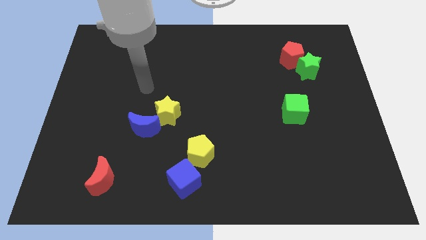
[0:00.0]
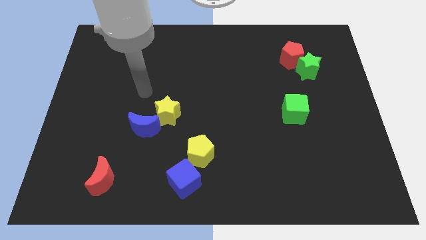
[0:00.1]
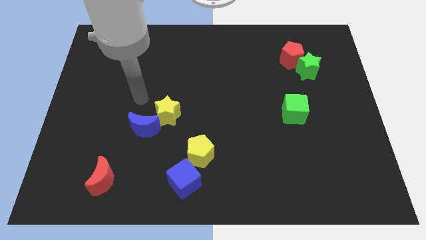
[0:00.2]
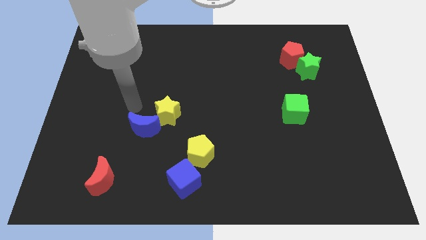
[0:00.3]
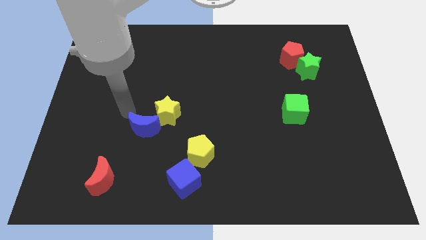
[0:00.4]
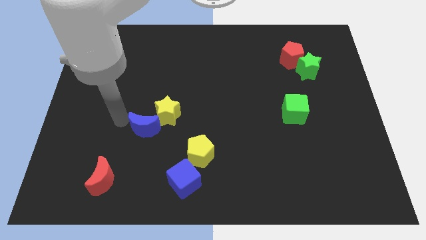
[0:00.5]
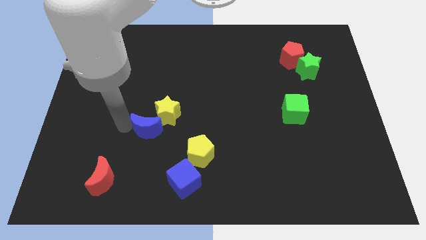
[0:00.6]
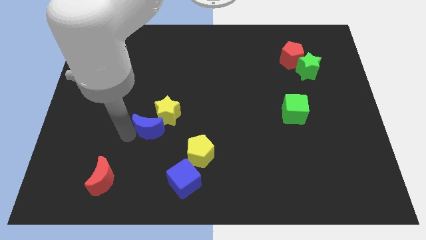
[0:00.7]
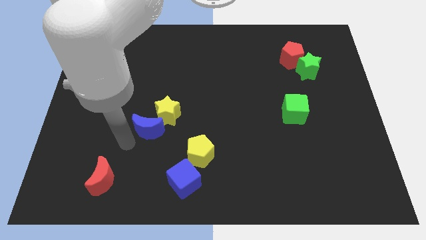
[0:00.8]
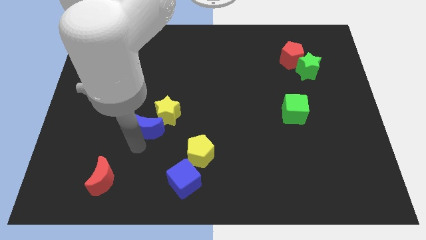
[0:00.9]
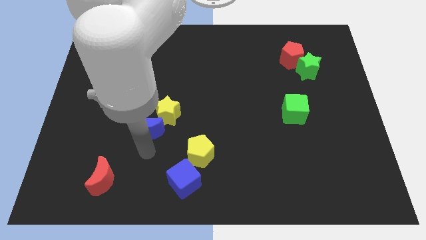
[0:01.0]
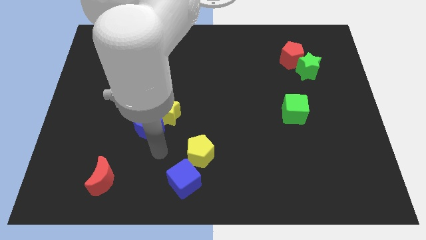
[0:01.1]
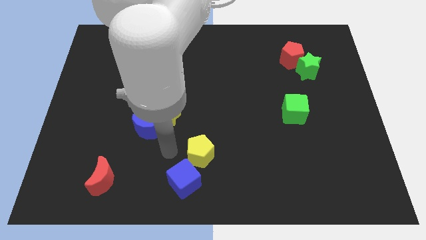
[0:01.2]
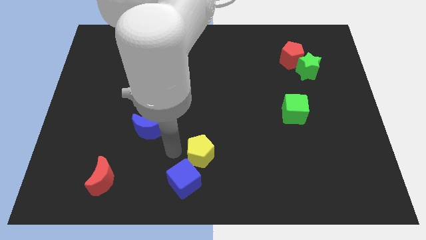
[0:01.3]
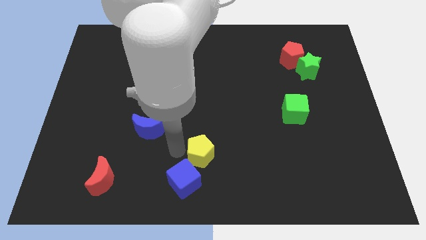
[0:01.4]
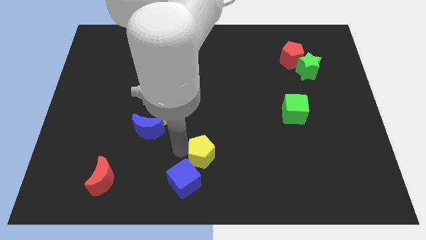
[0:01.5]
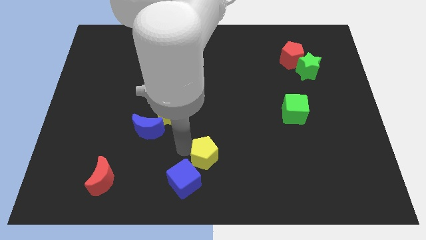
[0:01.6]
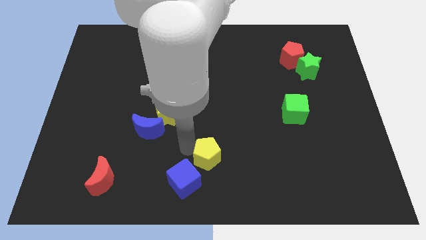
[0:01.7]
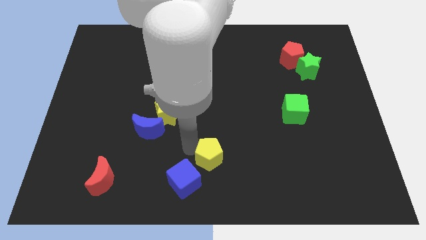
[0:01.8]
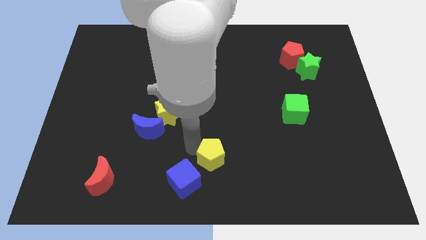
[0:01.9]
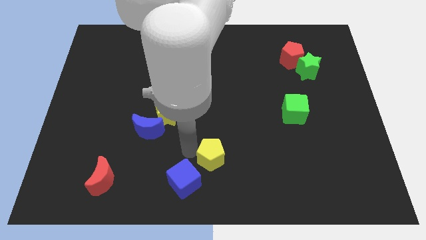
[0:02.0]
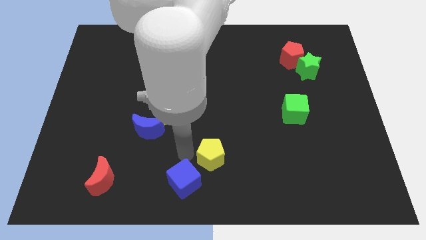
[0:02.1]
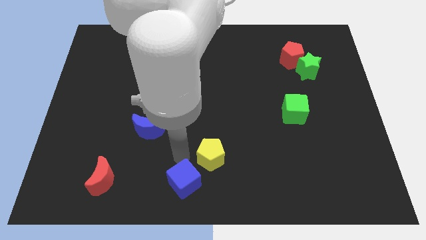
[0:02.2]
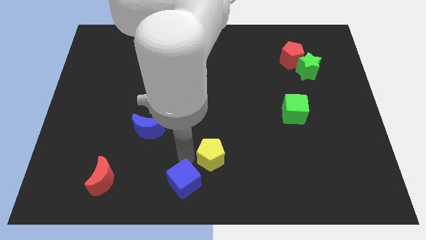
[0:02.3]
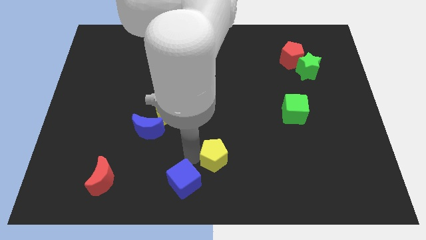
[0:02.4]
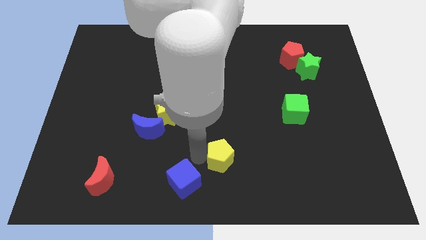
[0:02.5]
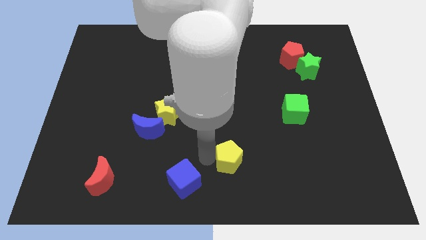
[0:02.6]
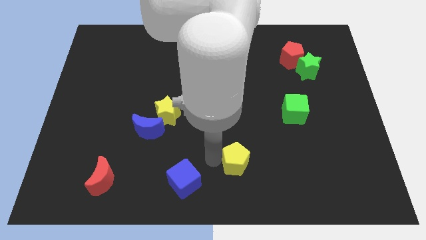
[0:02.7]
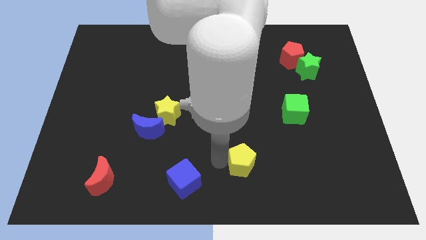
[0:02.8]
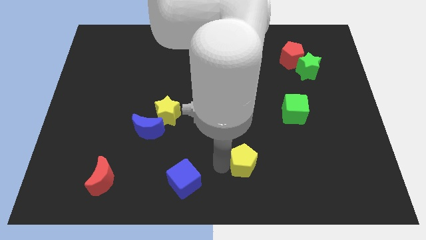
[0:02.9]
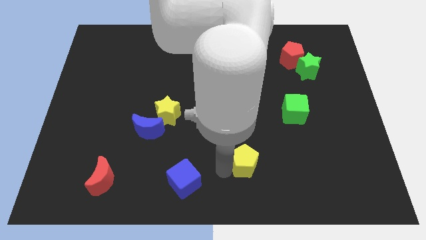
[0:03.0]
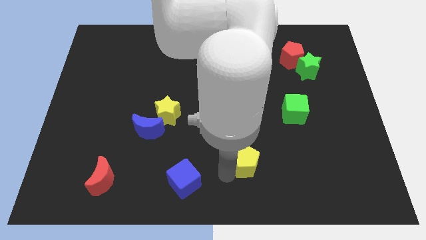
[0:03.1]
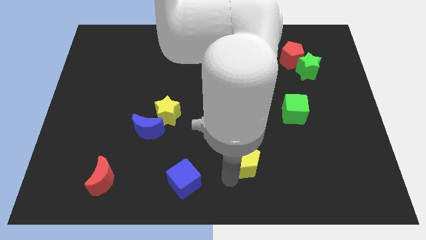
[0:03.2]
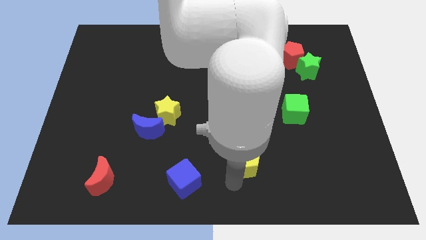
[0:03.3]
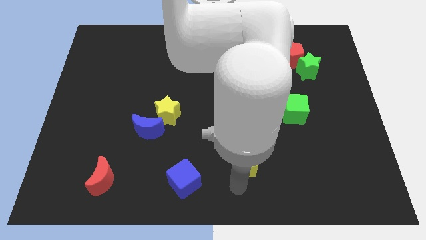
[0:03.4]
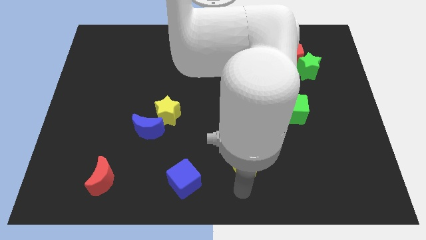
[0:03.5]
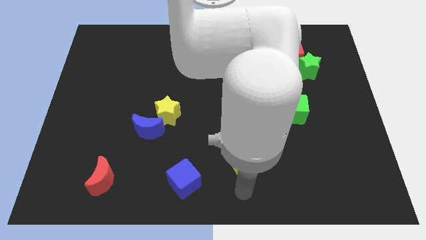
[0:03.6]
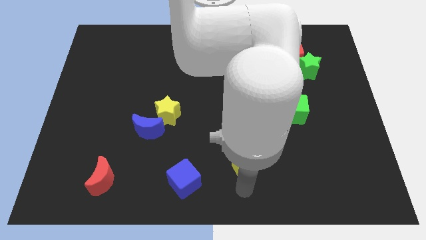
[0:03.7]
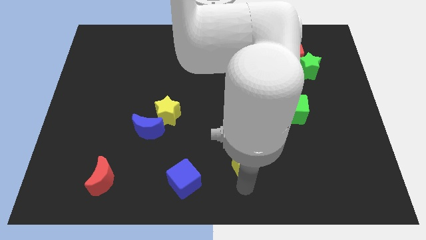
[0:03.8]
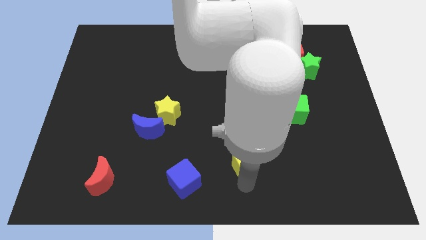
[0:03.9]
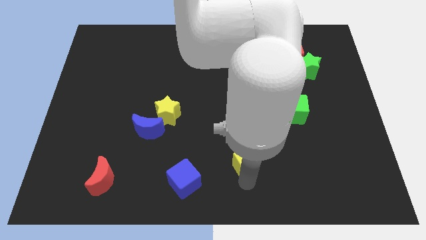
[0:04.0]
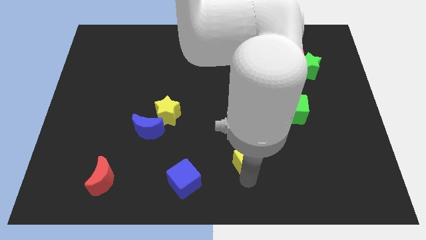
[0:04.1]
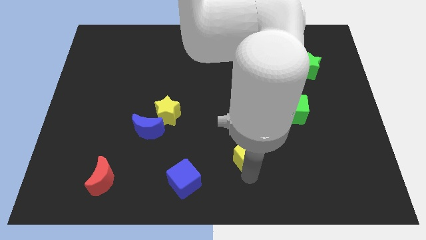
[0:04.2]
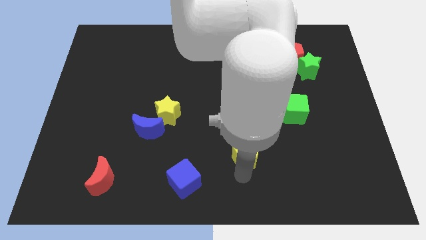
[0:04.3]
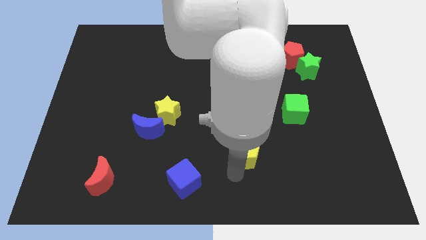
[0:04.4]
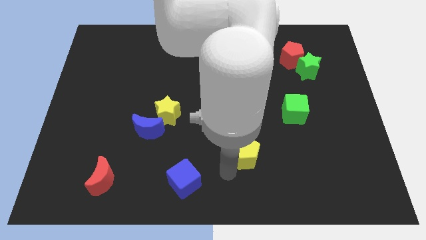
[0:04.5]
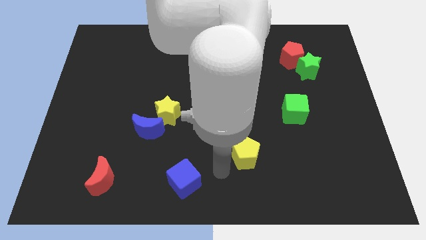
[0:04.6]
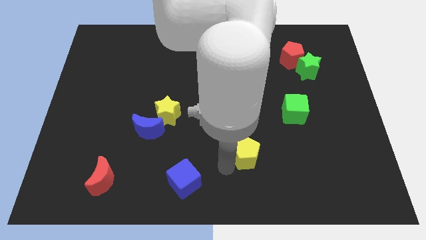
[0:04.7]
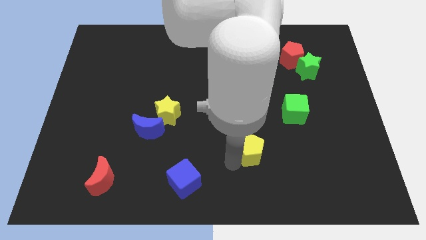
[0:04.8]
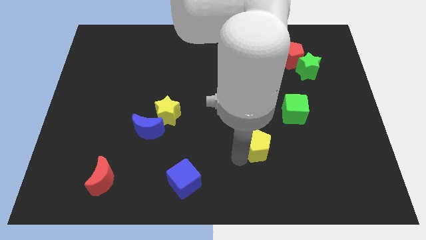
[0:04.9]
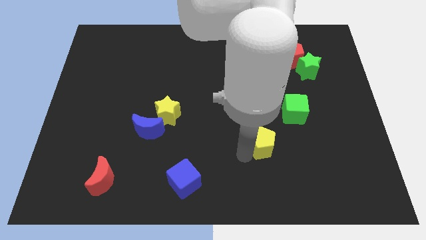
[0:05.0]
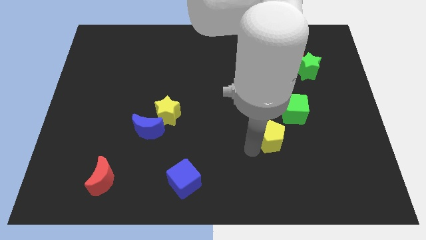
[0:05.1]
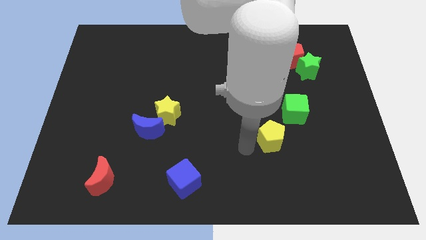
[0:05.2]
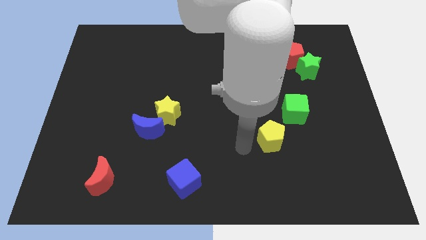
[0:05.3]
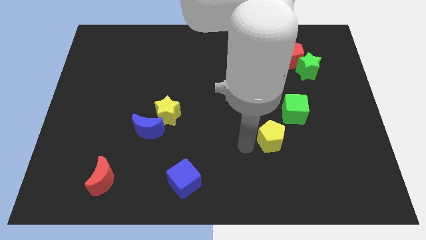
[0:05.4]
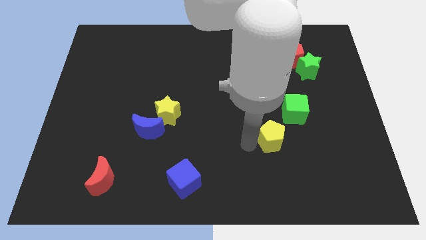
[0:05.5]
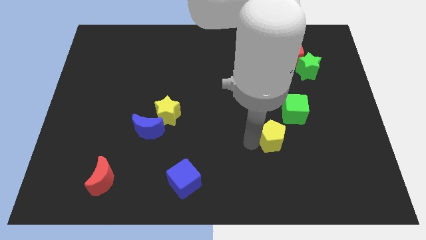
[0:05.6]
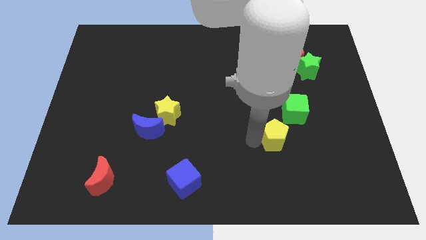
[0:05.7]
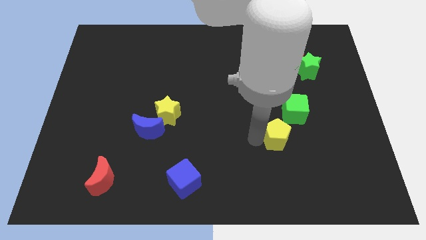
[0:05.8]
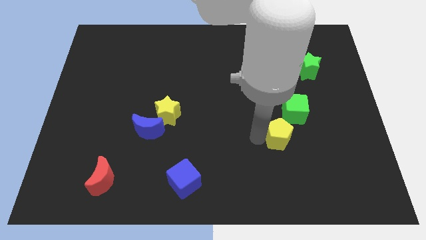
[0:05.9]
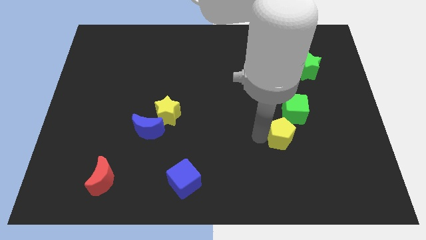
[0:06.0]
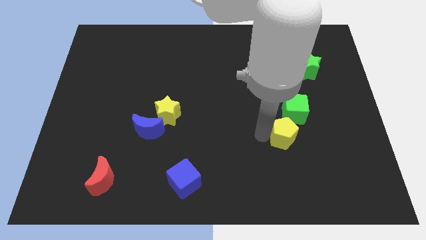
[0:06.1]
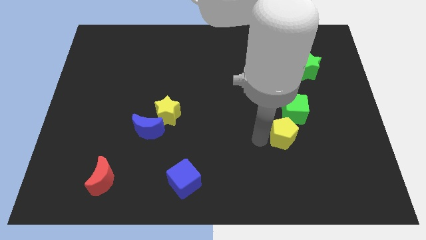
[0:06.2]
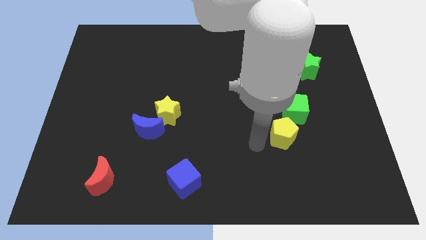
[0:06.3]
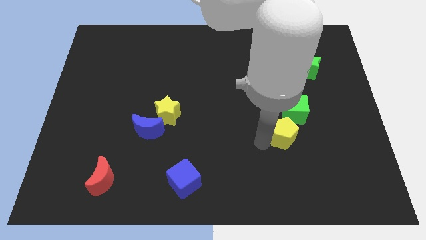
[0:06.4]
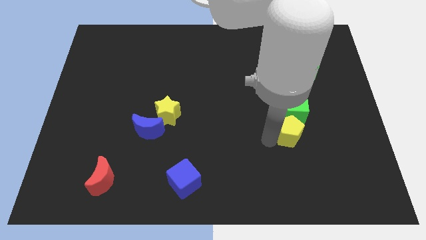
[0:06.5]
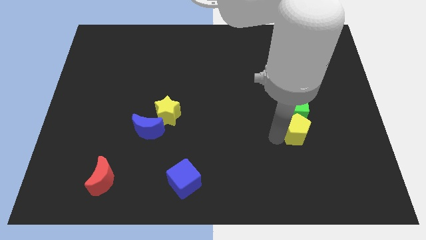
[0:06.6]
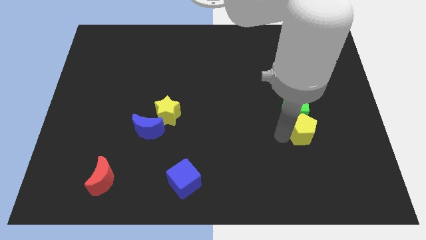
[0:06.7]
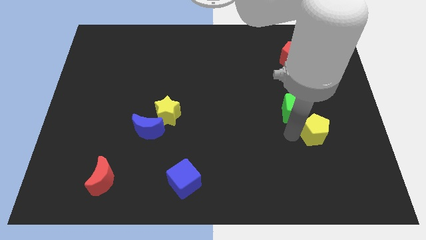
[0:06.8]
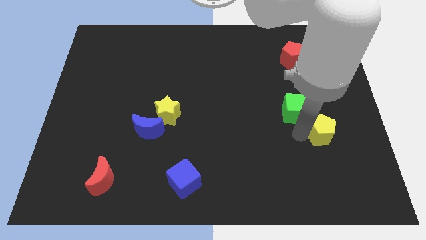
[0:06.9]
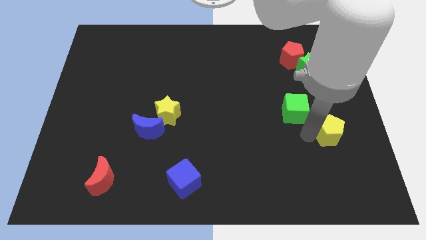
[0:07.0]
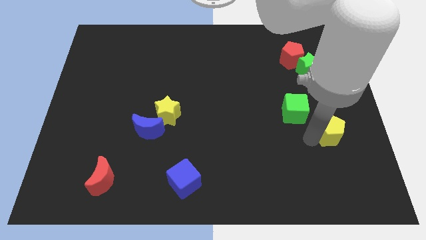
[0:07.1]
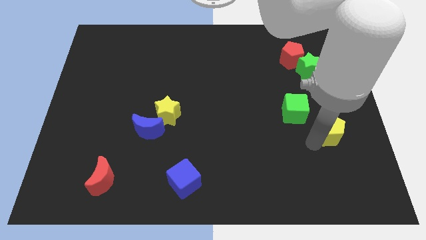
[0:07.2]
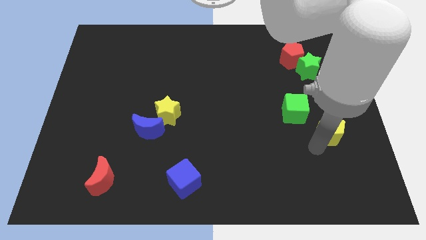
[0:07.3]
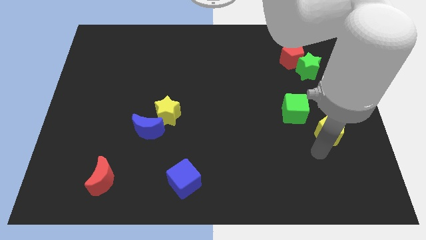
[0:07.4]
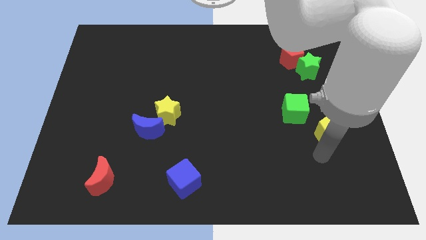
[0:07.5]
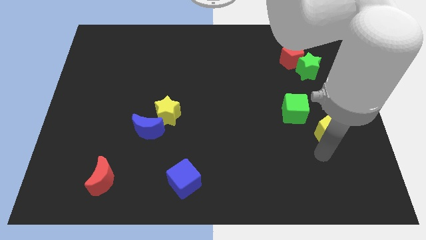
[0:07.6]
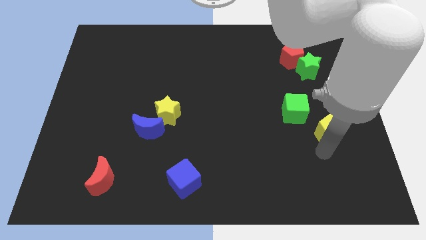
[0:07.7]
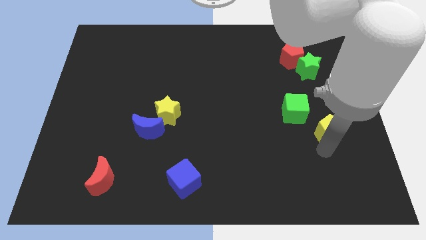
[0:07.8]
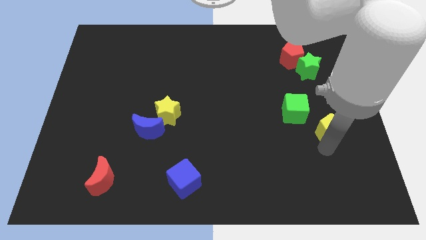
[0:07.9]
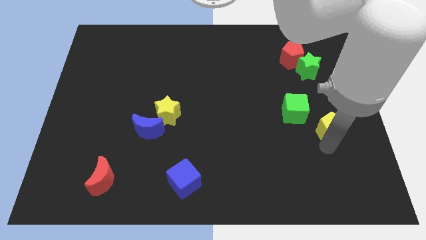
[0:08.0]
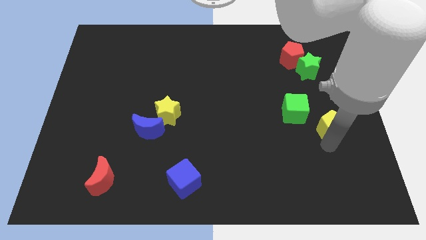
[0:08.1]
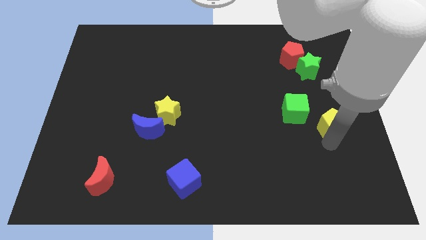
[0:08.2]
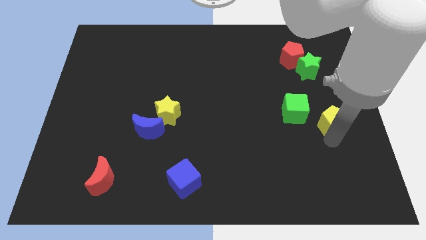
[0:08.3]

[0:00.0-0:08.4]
slide the yellow pentagon to the right side of the board
